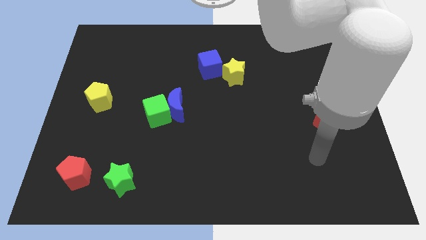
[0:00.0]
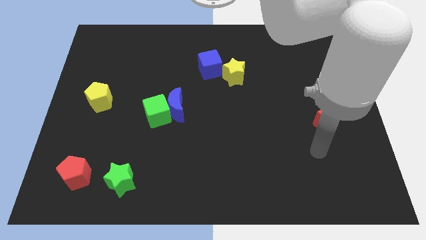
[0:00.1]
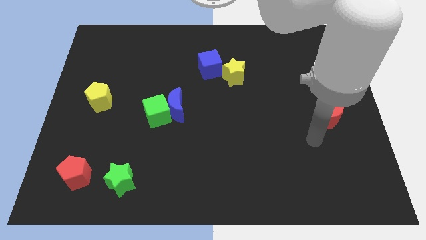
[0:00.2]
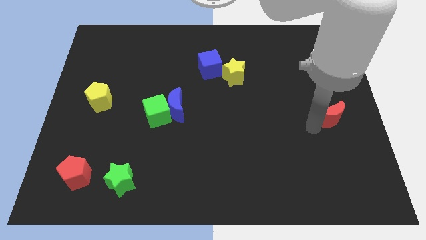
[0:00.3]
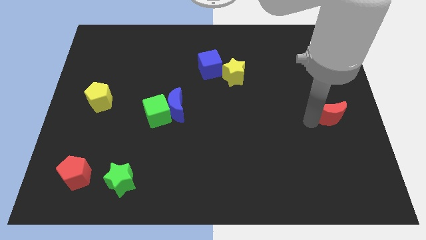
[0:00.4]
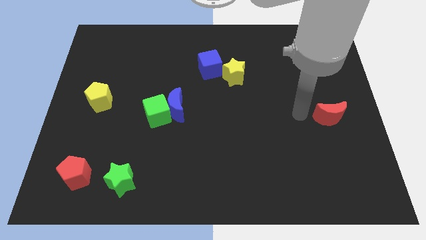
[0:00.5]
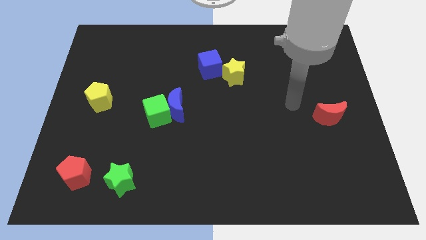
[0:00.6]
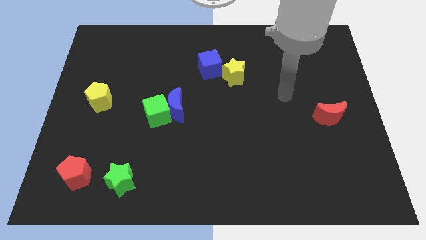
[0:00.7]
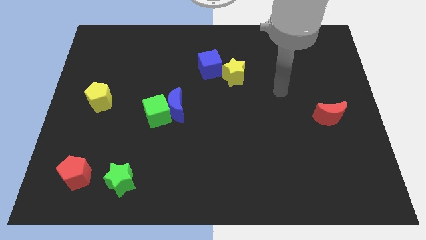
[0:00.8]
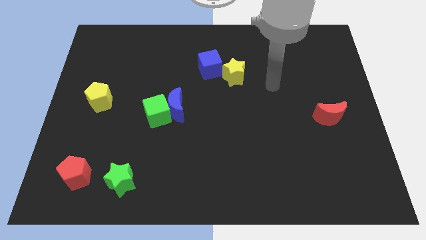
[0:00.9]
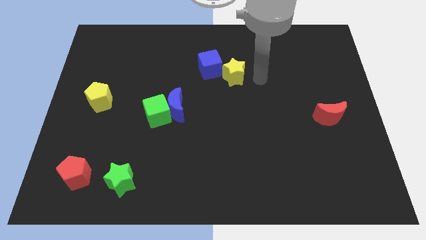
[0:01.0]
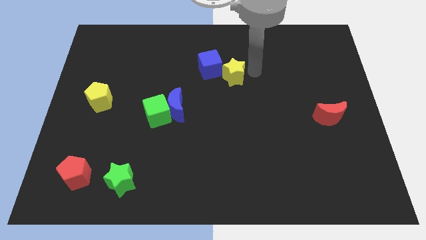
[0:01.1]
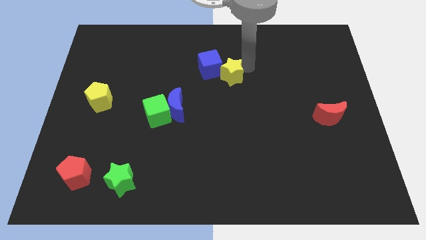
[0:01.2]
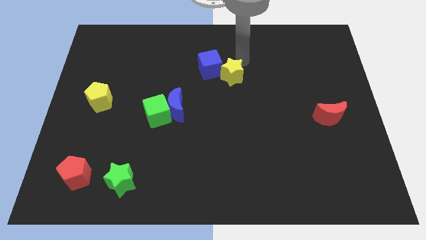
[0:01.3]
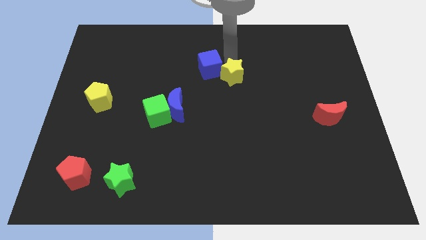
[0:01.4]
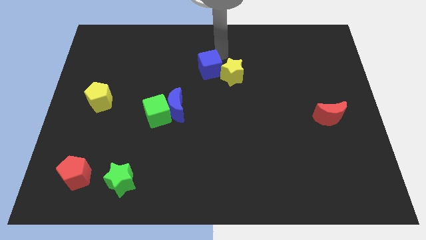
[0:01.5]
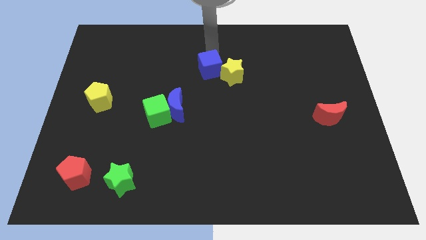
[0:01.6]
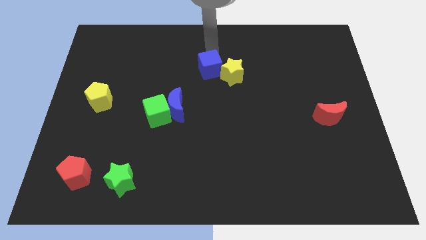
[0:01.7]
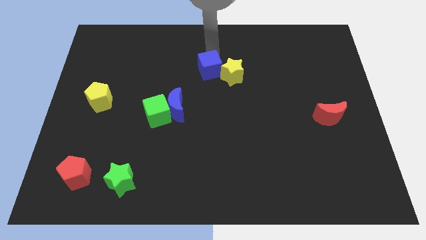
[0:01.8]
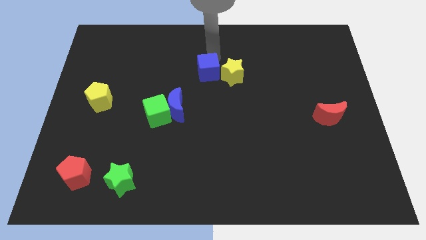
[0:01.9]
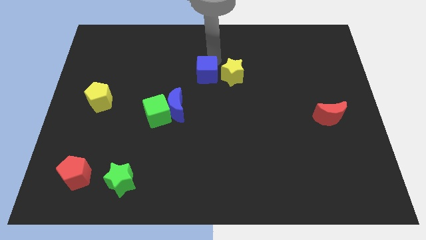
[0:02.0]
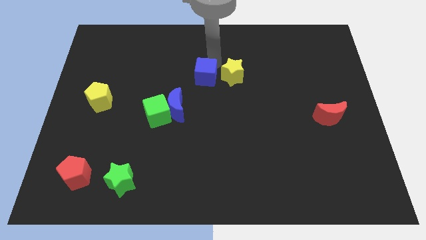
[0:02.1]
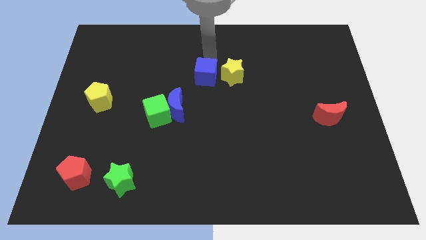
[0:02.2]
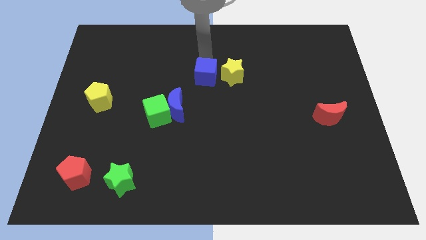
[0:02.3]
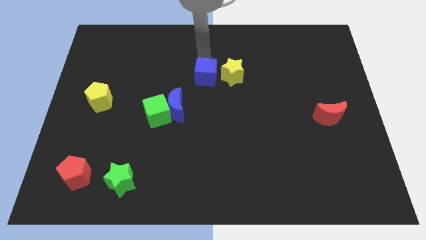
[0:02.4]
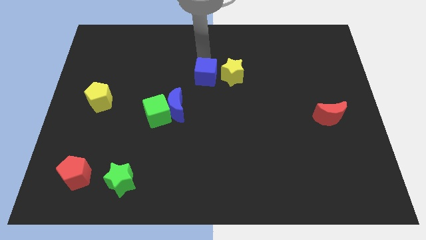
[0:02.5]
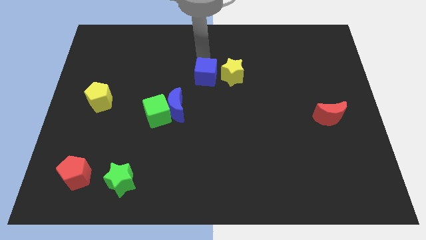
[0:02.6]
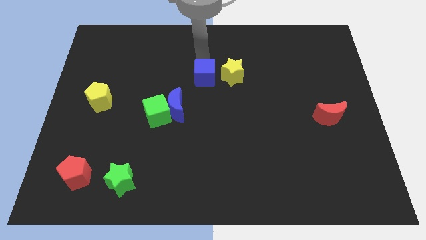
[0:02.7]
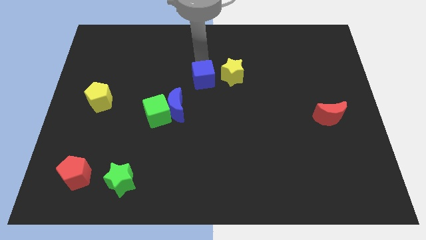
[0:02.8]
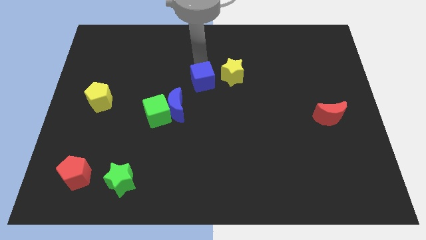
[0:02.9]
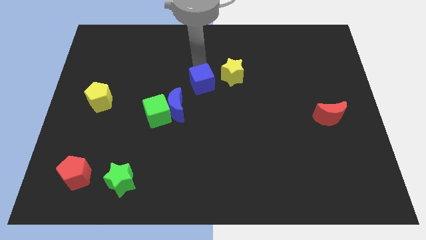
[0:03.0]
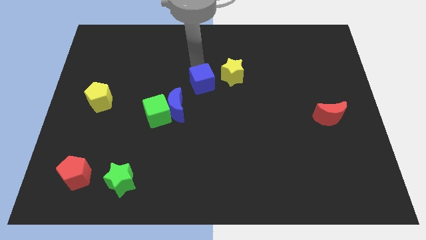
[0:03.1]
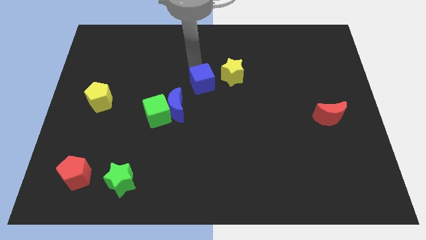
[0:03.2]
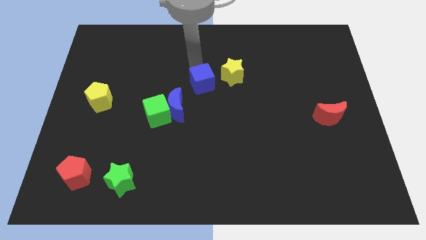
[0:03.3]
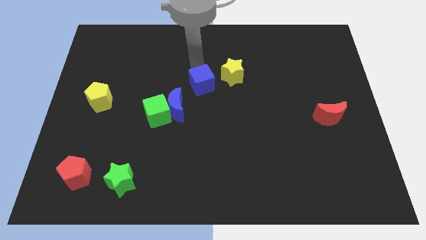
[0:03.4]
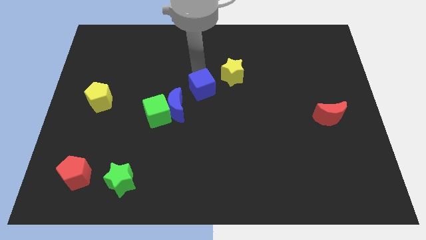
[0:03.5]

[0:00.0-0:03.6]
slide the blue cube downwards a little bit

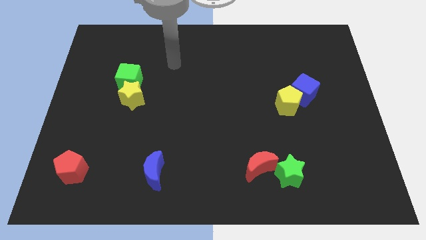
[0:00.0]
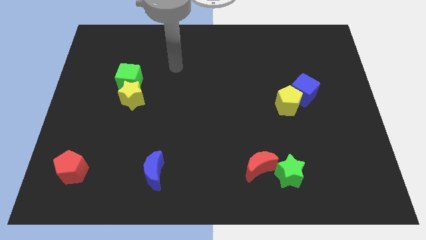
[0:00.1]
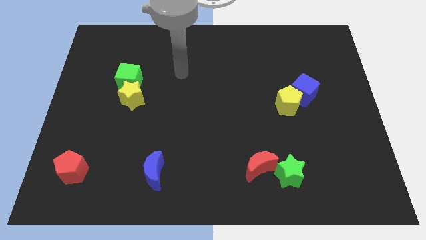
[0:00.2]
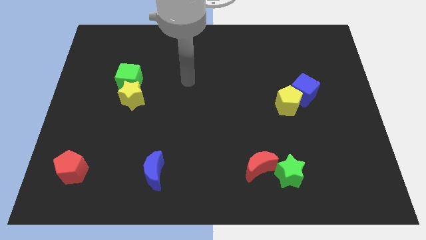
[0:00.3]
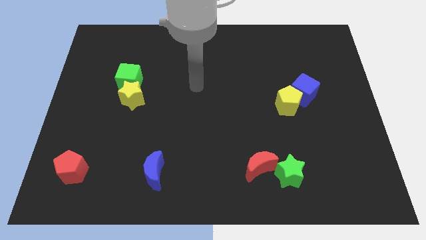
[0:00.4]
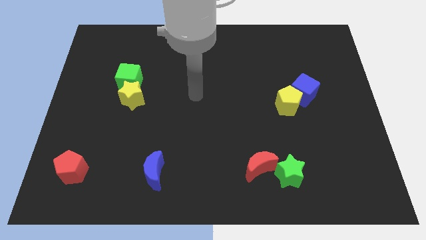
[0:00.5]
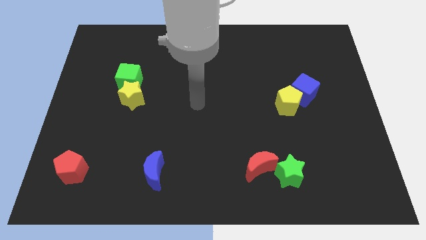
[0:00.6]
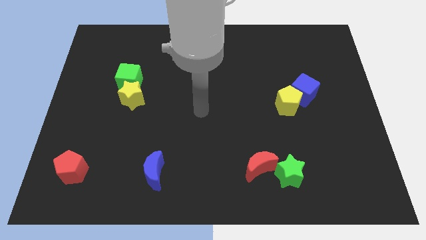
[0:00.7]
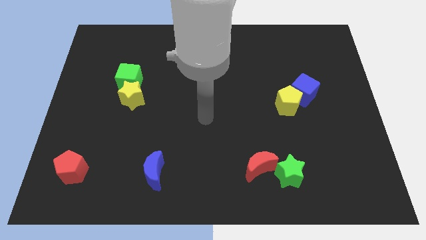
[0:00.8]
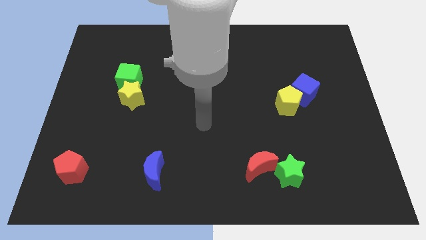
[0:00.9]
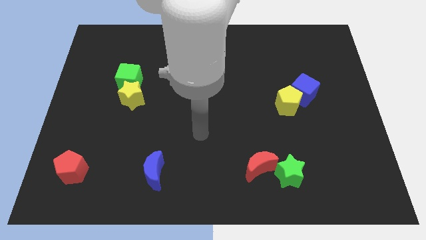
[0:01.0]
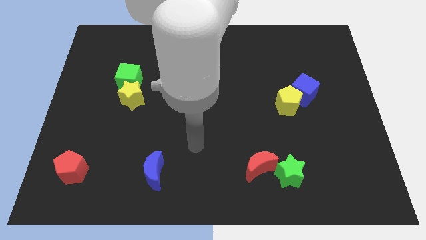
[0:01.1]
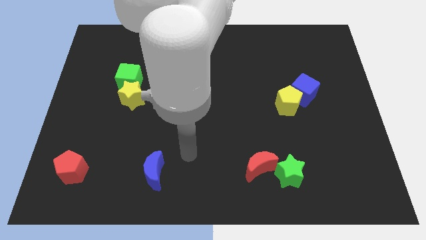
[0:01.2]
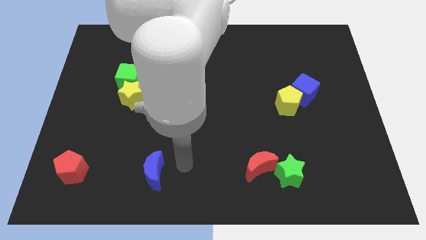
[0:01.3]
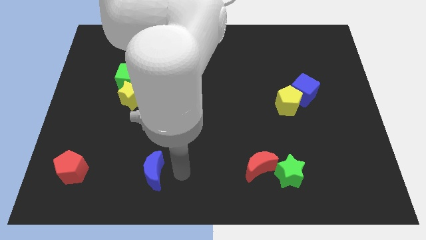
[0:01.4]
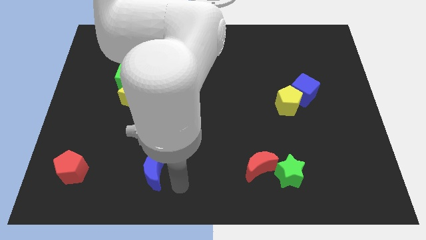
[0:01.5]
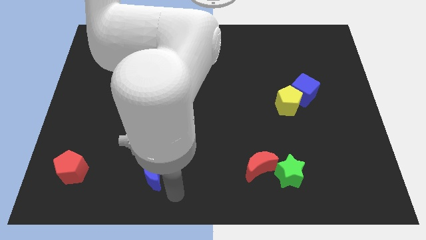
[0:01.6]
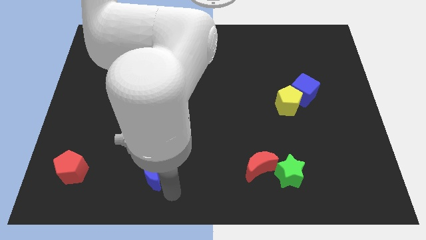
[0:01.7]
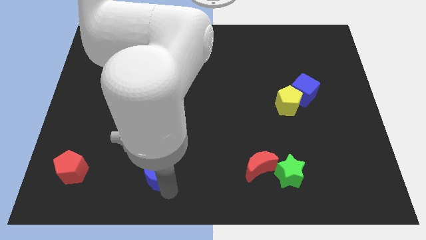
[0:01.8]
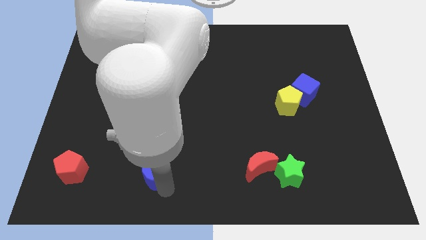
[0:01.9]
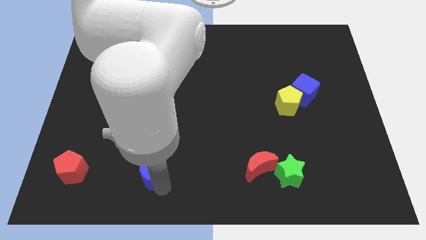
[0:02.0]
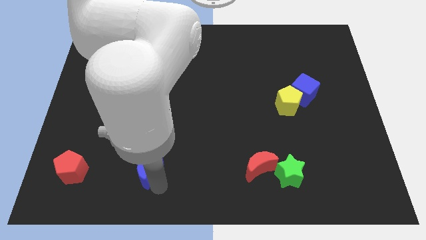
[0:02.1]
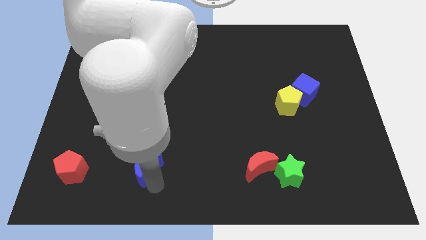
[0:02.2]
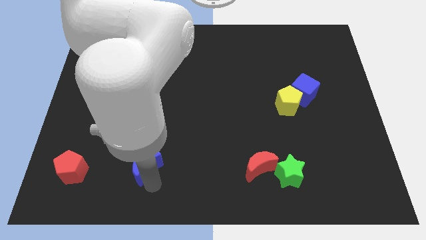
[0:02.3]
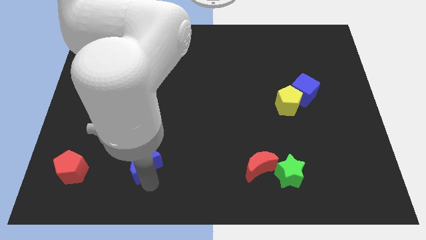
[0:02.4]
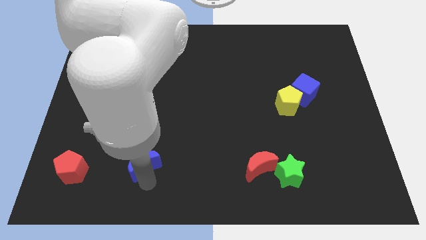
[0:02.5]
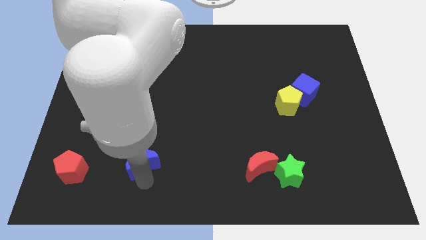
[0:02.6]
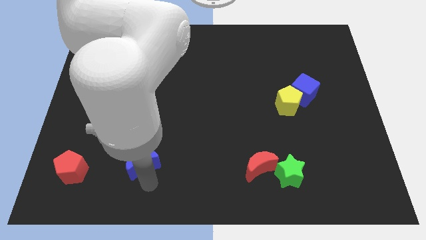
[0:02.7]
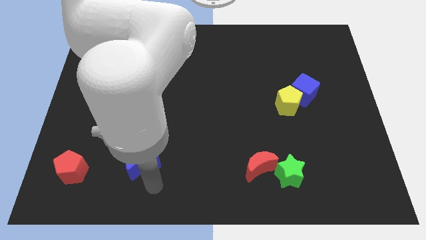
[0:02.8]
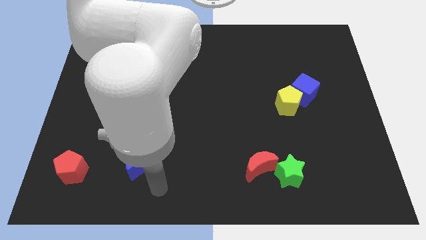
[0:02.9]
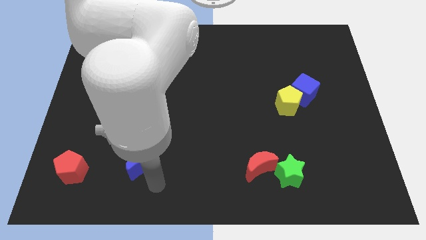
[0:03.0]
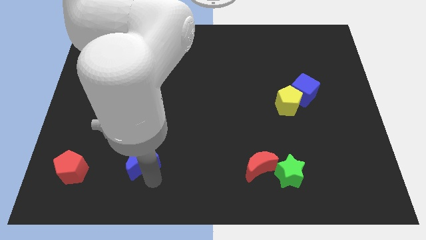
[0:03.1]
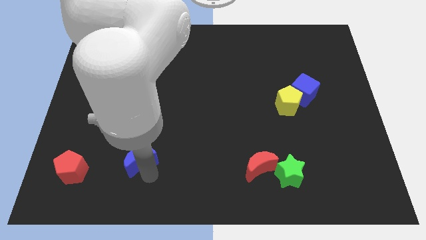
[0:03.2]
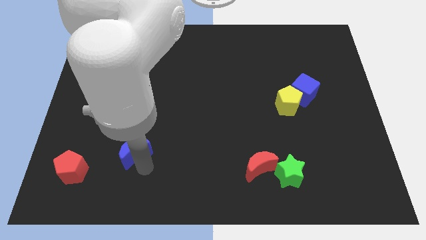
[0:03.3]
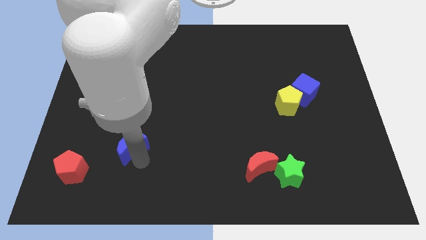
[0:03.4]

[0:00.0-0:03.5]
push the blue moon a bit up and then left

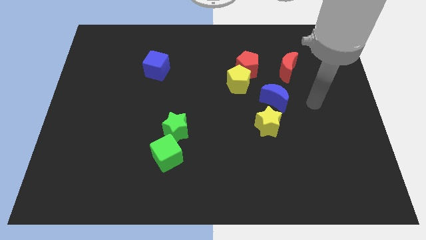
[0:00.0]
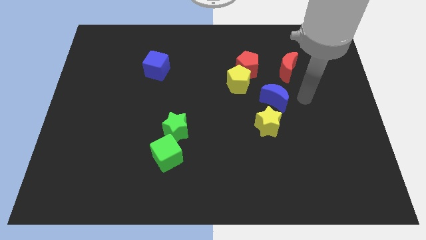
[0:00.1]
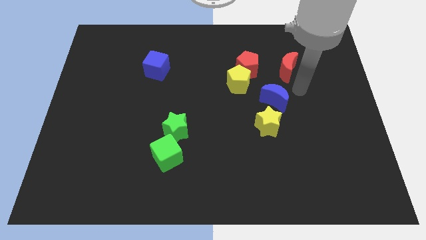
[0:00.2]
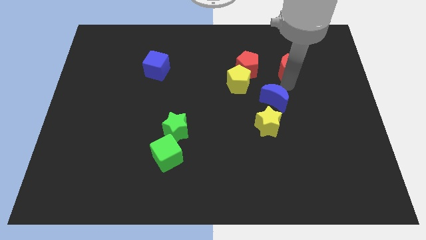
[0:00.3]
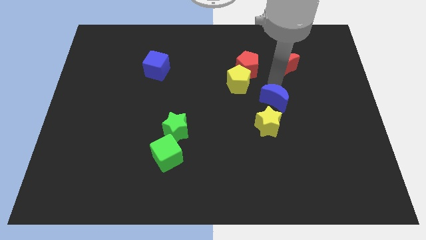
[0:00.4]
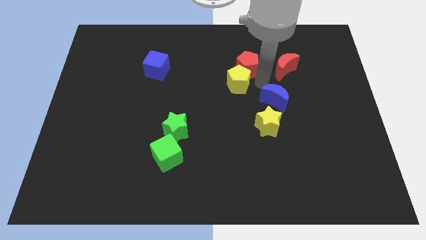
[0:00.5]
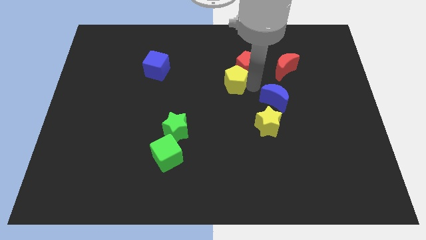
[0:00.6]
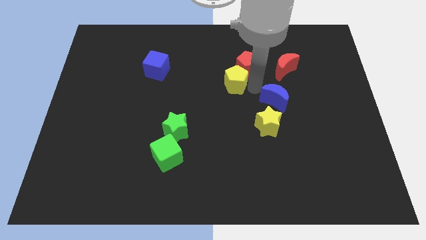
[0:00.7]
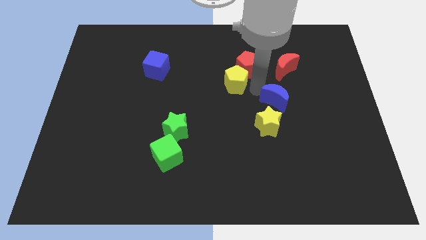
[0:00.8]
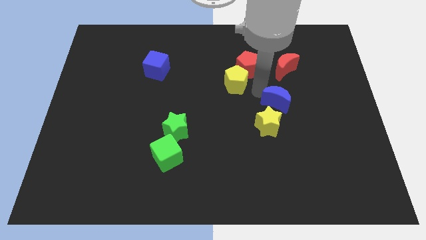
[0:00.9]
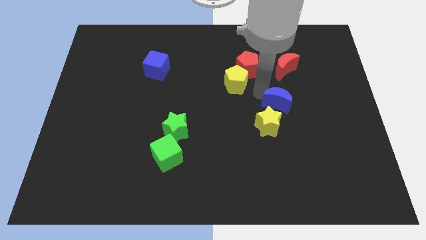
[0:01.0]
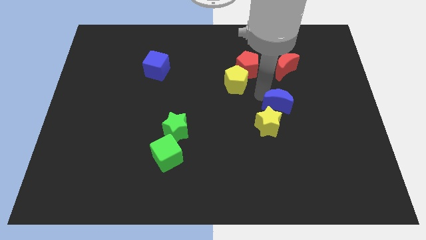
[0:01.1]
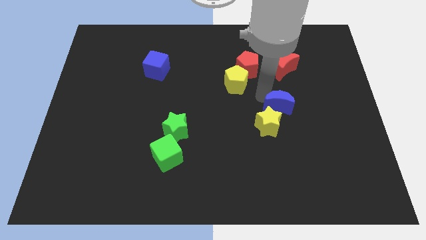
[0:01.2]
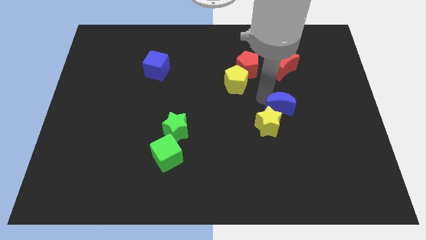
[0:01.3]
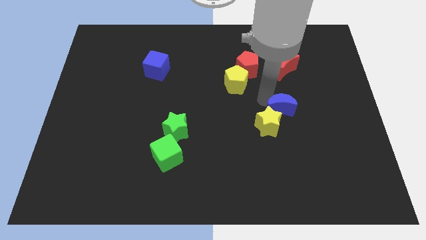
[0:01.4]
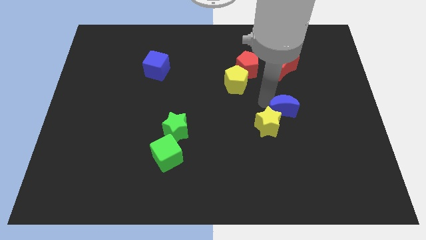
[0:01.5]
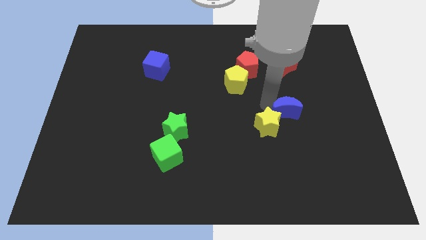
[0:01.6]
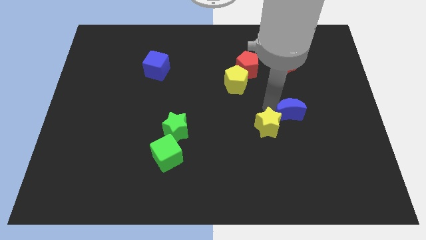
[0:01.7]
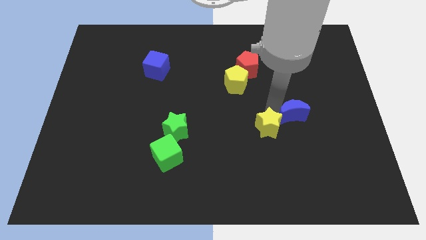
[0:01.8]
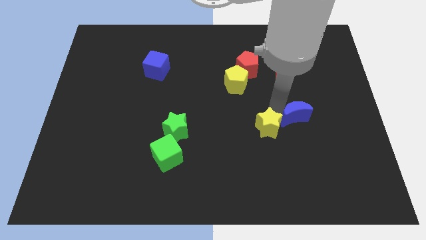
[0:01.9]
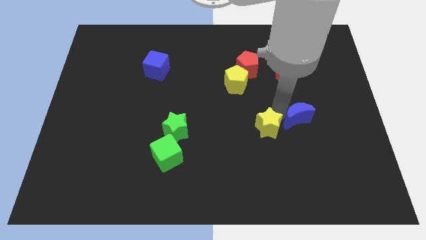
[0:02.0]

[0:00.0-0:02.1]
push the blue moon a bit diagonally down and right
